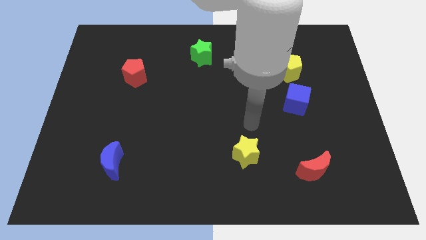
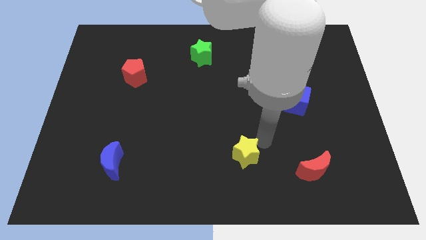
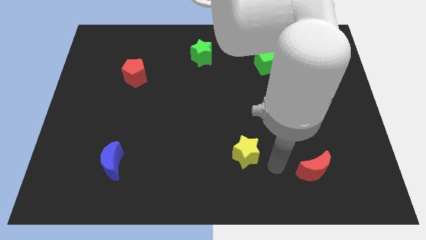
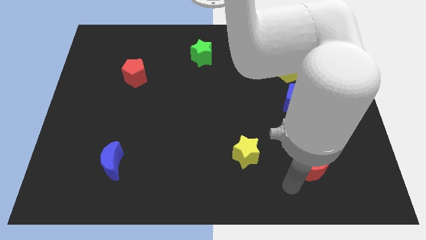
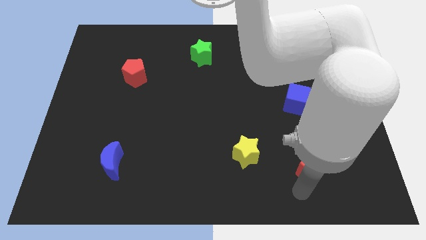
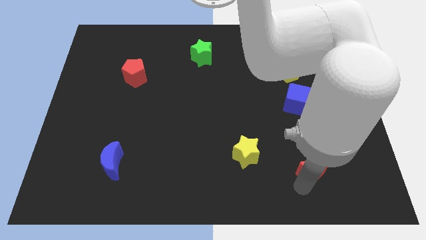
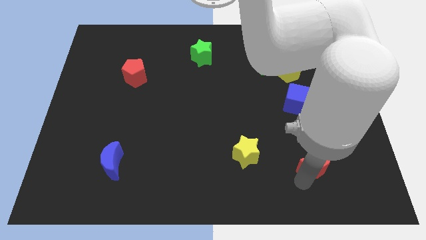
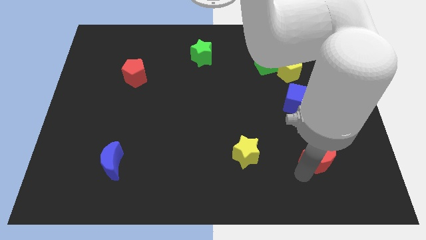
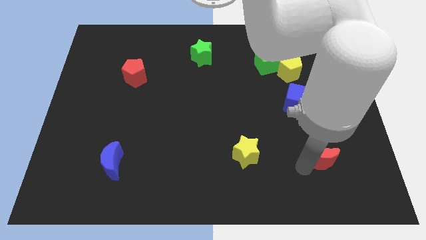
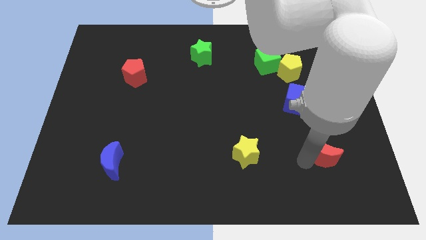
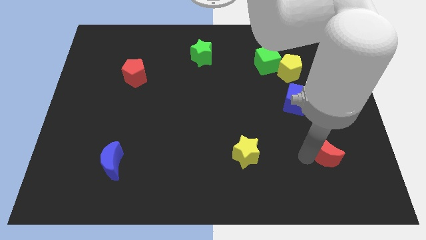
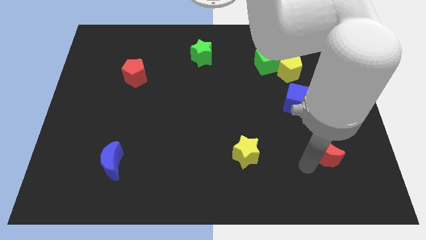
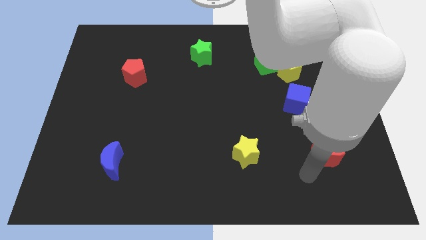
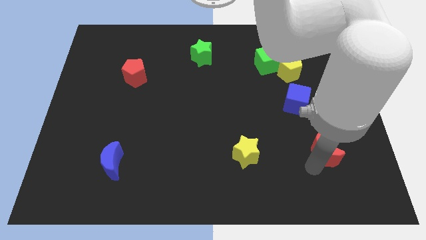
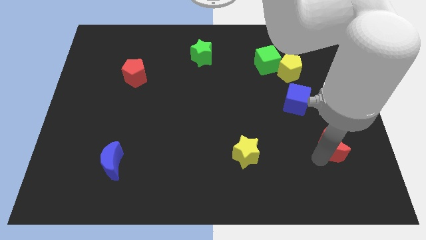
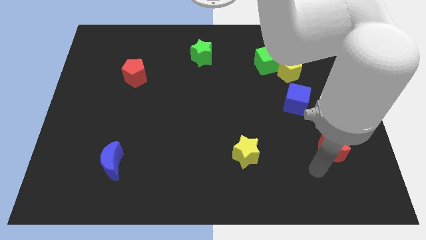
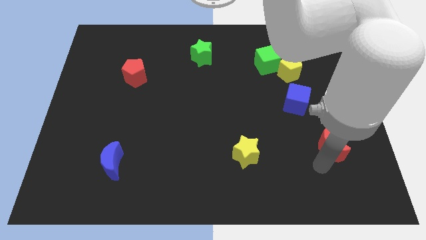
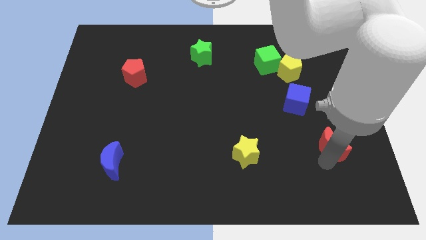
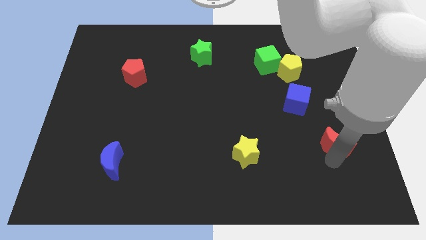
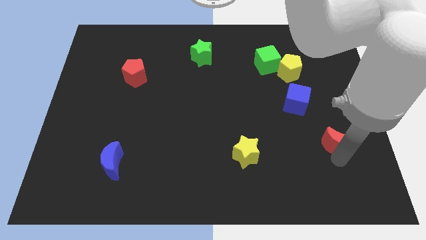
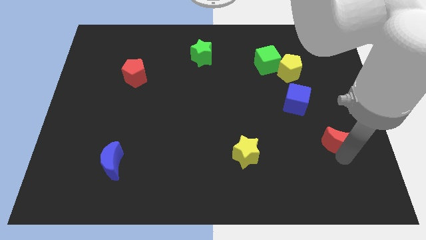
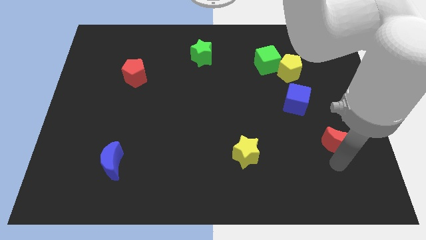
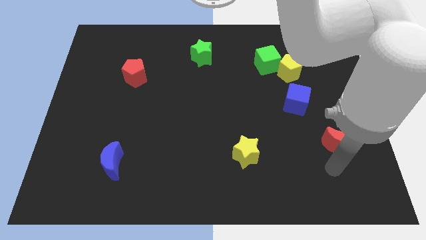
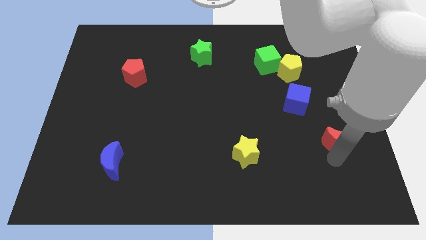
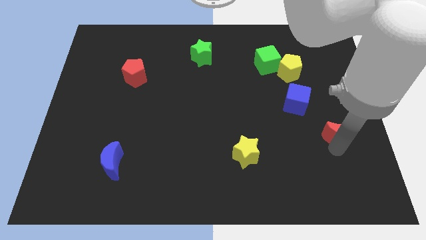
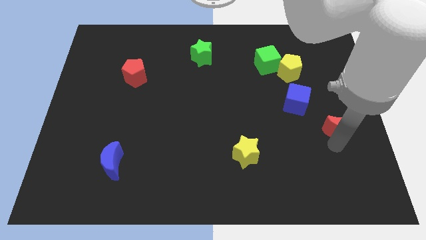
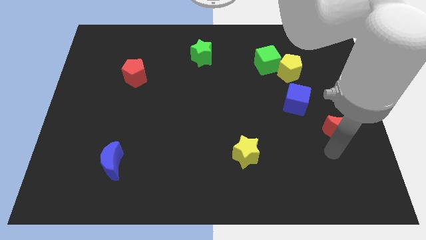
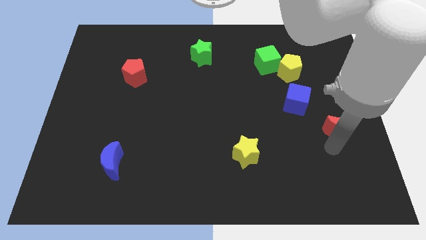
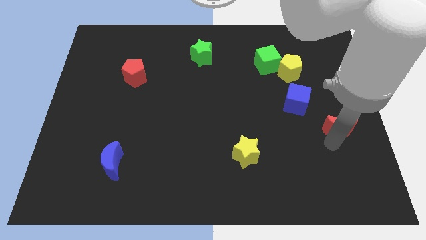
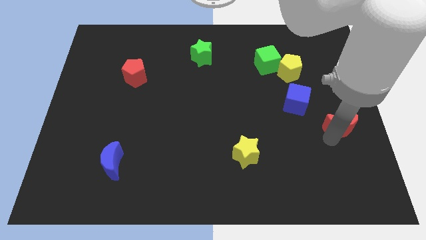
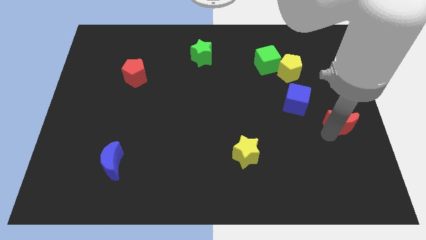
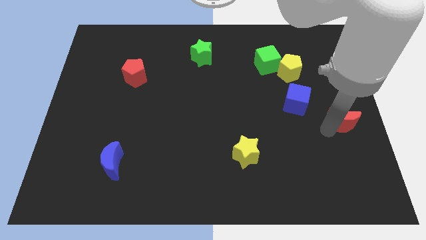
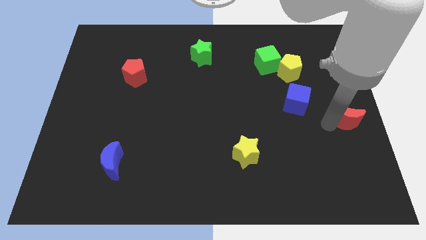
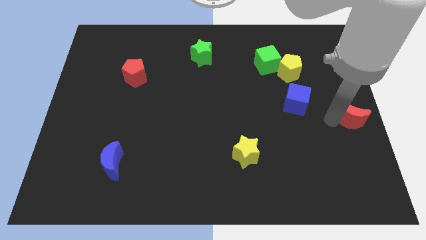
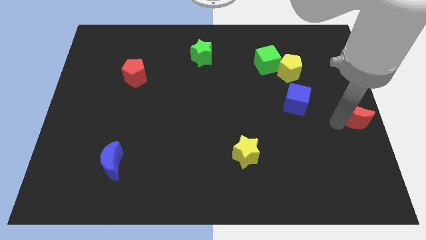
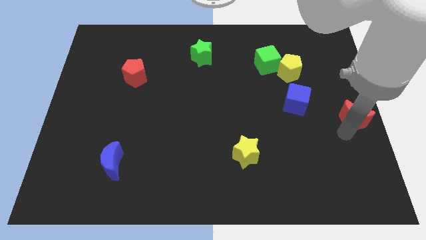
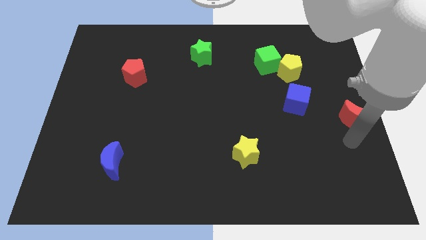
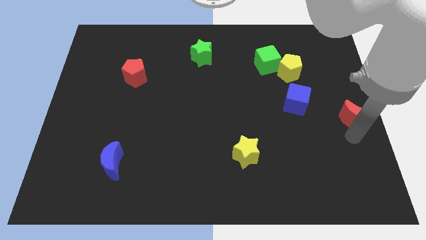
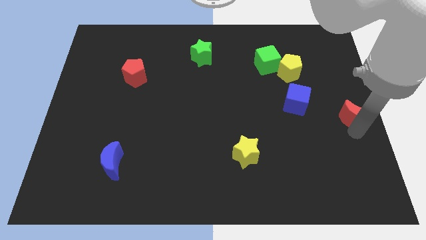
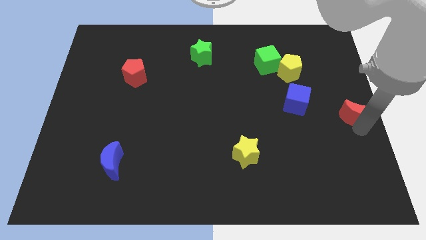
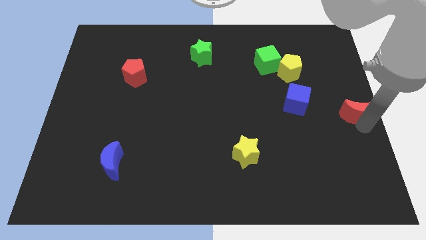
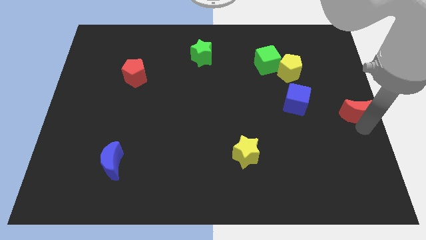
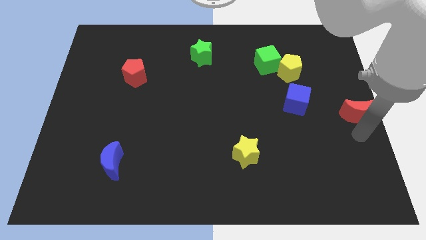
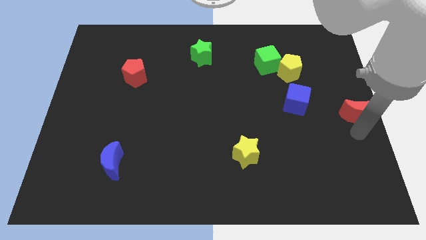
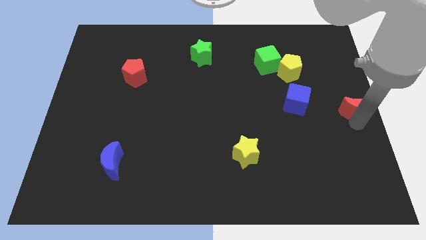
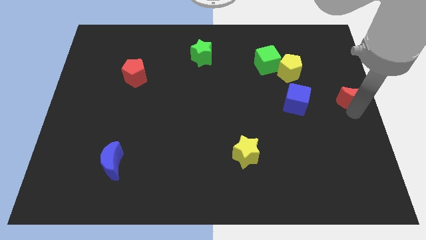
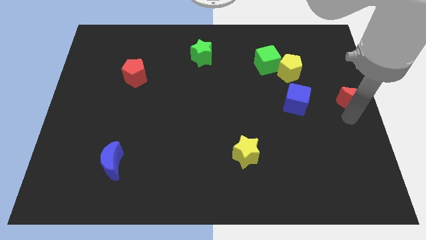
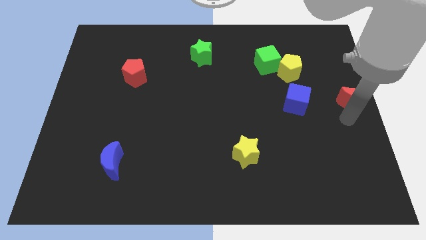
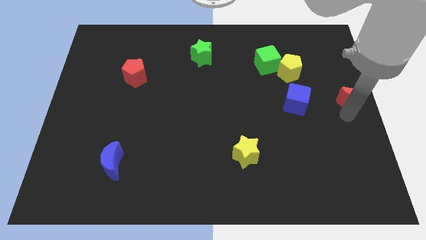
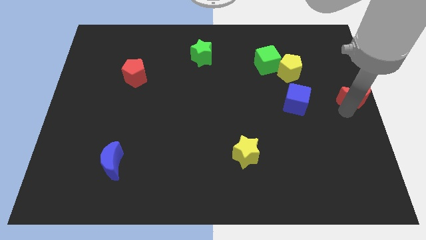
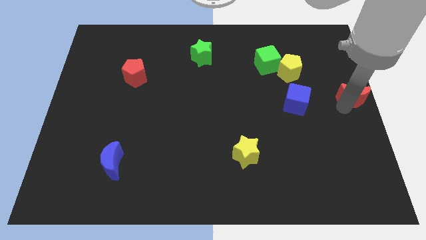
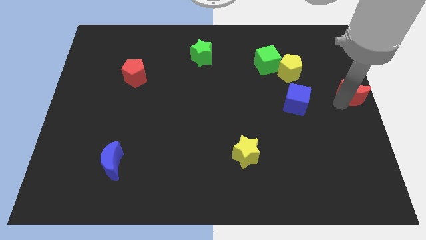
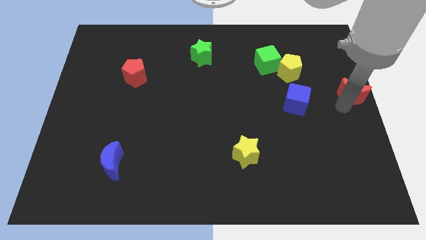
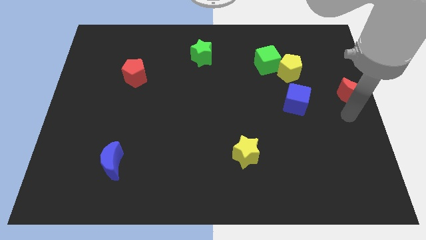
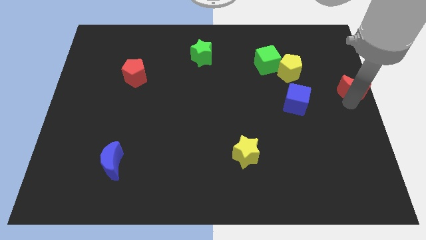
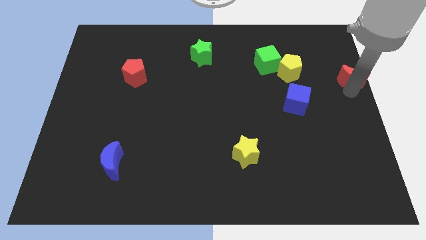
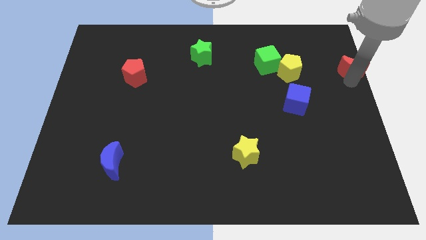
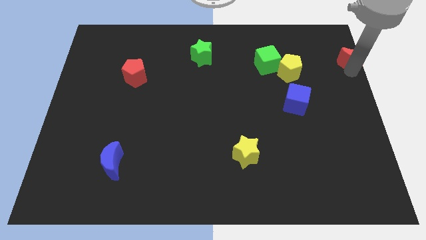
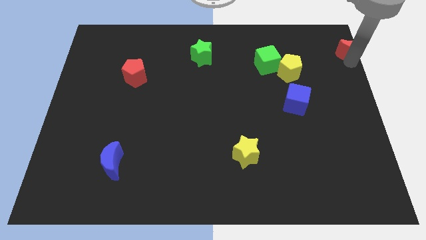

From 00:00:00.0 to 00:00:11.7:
put the red moon to the top right of the board
